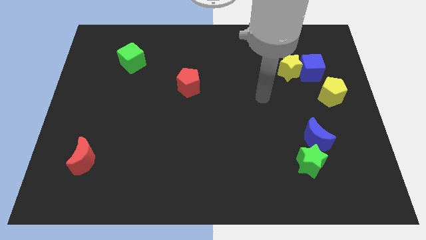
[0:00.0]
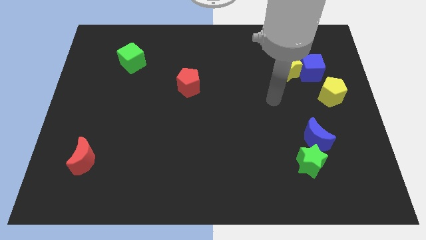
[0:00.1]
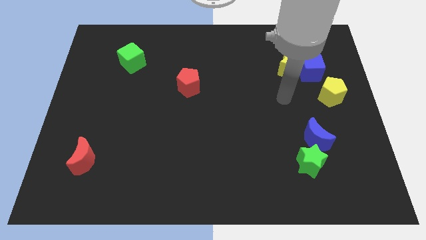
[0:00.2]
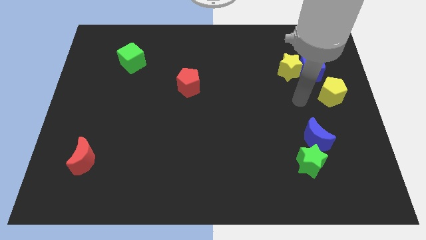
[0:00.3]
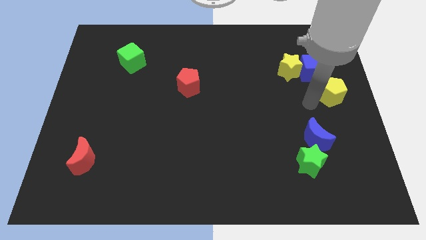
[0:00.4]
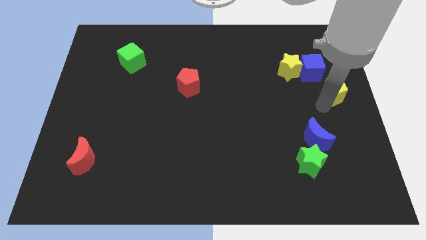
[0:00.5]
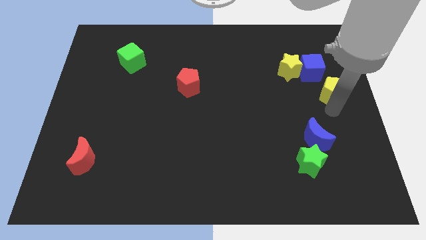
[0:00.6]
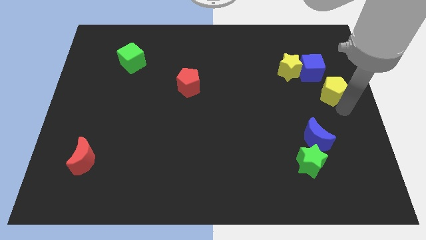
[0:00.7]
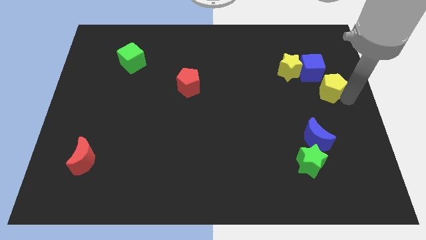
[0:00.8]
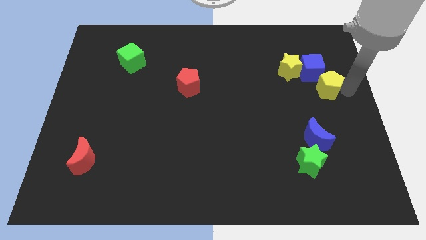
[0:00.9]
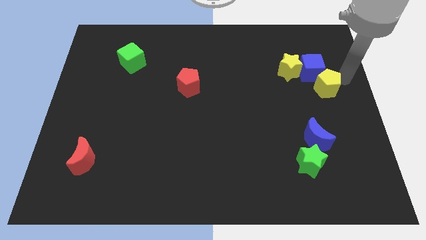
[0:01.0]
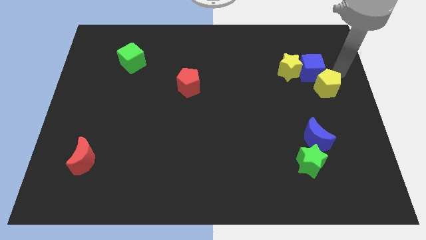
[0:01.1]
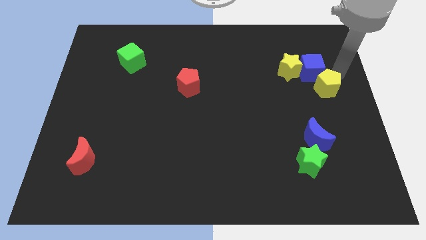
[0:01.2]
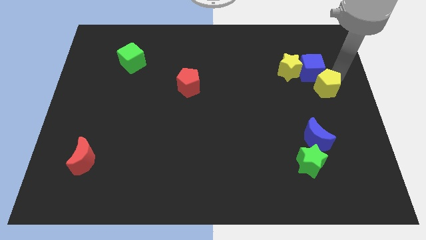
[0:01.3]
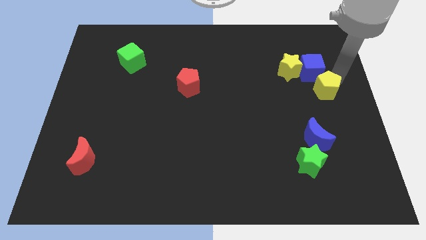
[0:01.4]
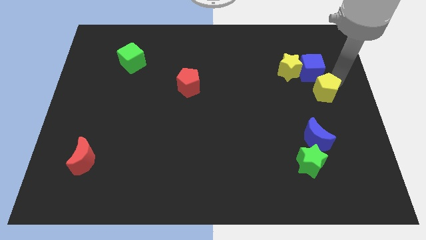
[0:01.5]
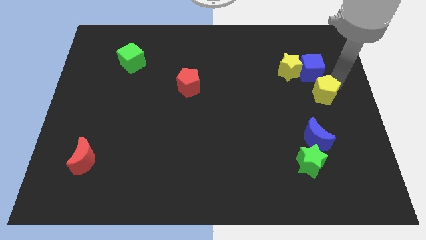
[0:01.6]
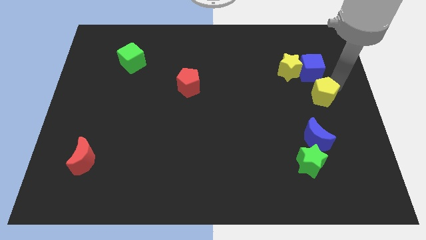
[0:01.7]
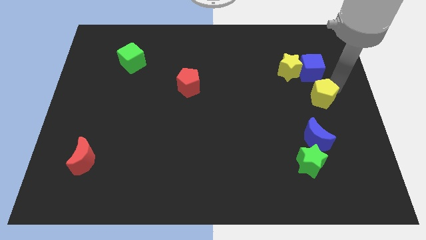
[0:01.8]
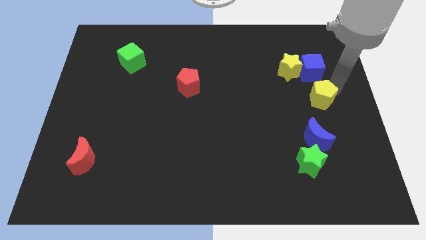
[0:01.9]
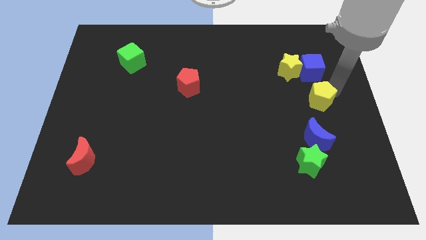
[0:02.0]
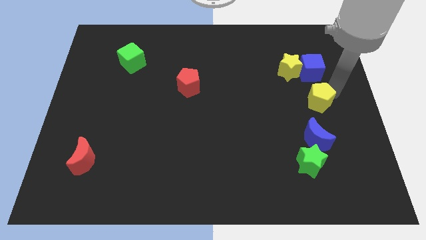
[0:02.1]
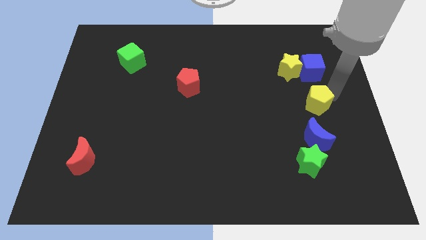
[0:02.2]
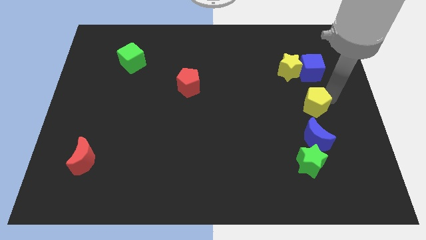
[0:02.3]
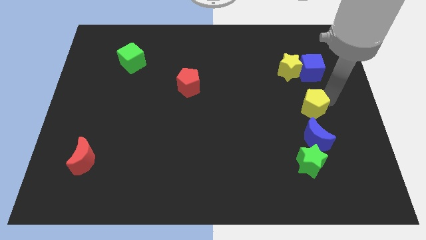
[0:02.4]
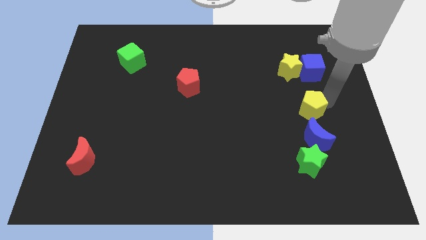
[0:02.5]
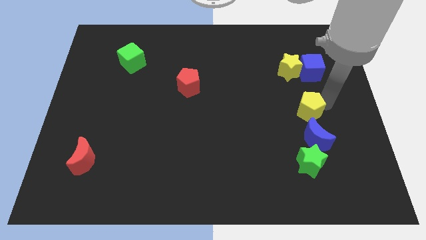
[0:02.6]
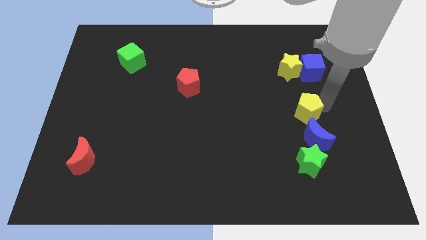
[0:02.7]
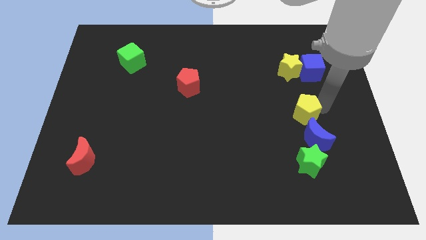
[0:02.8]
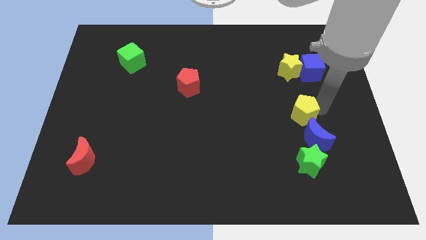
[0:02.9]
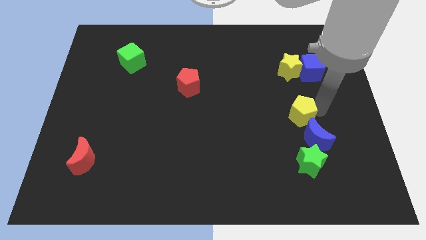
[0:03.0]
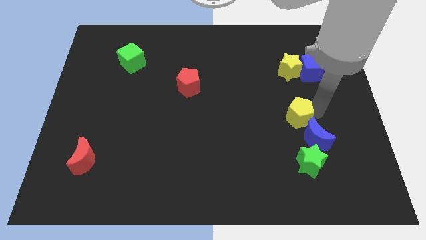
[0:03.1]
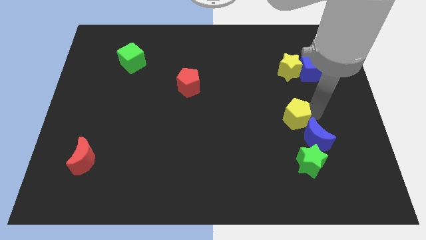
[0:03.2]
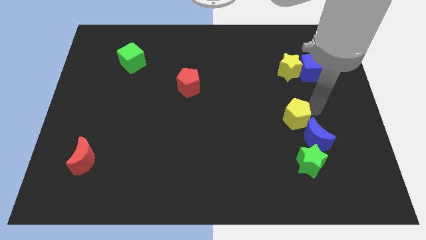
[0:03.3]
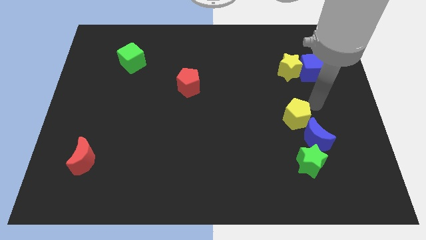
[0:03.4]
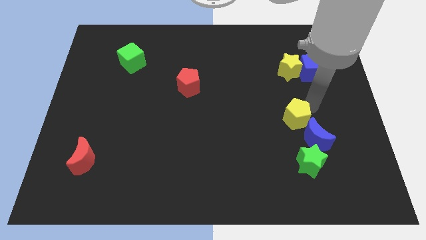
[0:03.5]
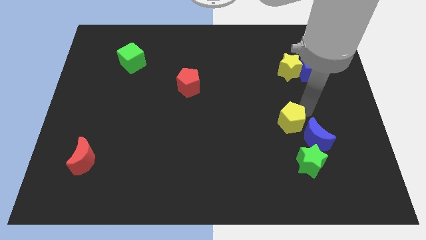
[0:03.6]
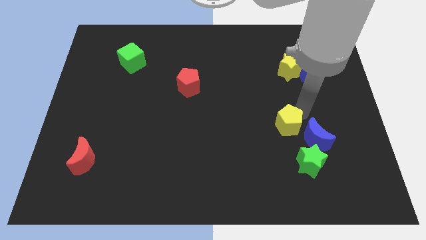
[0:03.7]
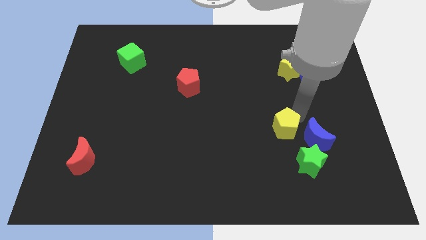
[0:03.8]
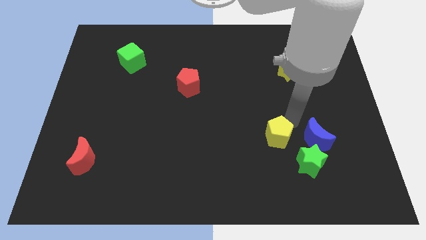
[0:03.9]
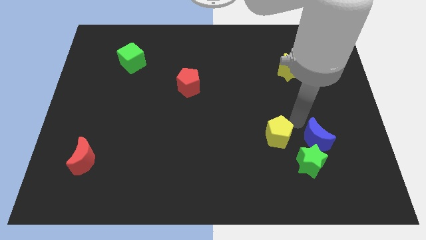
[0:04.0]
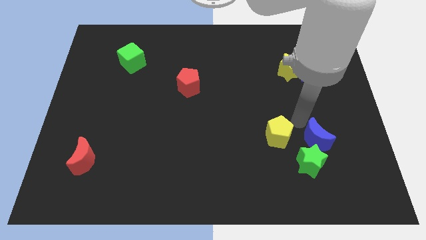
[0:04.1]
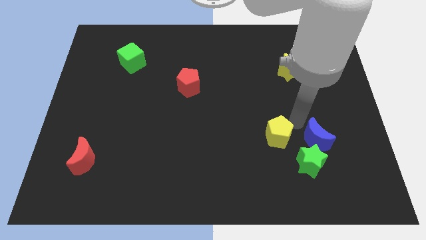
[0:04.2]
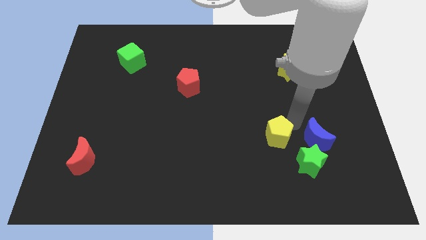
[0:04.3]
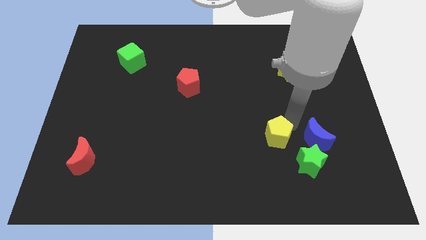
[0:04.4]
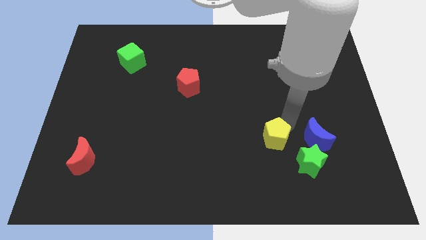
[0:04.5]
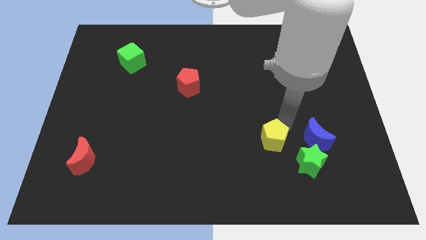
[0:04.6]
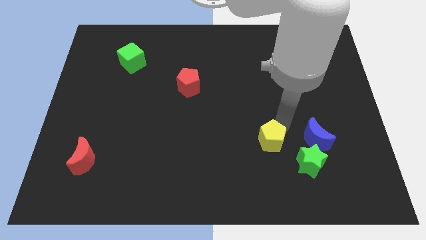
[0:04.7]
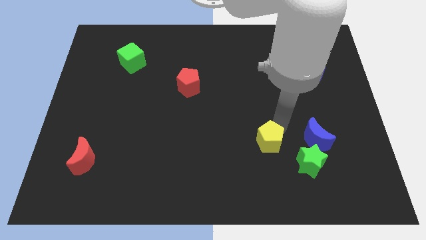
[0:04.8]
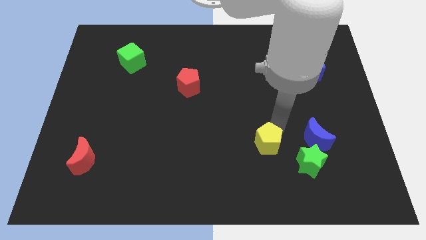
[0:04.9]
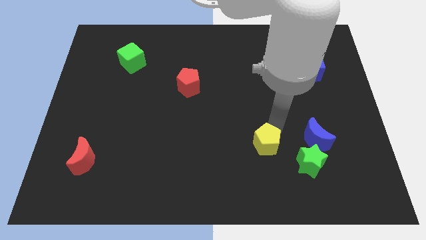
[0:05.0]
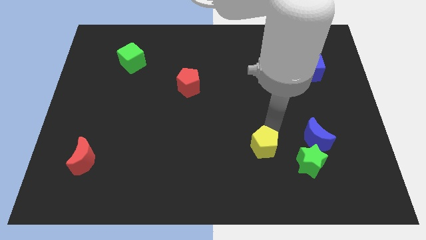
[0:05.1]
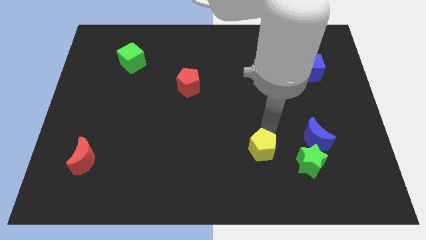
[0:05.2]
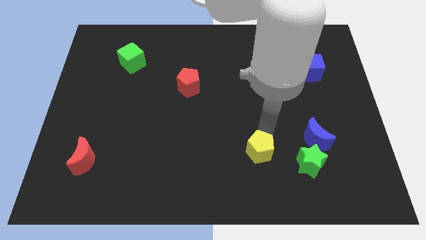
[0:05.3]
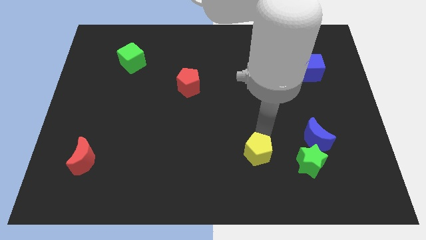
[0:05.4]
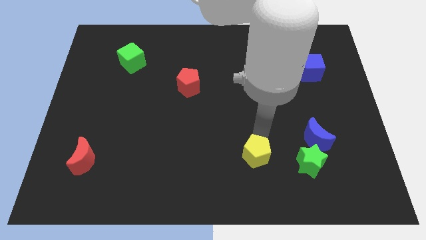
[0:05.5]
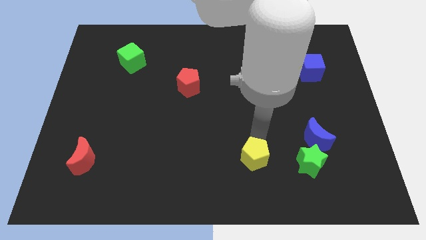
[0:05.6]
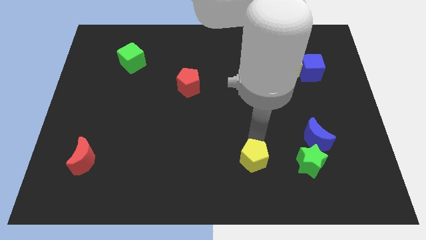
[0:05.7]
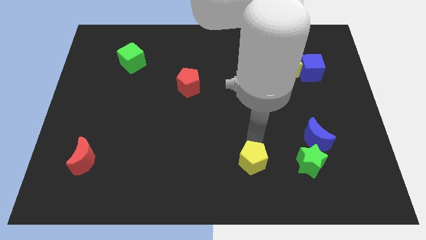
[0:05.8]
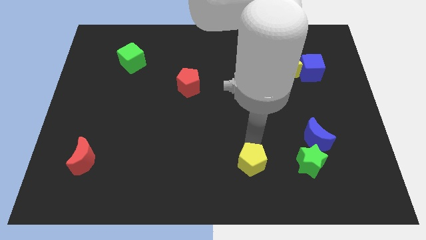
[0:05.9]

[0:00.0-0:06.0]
slide the yellow pentagon to the bottom side

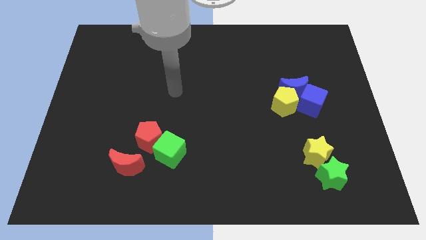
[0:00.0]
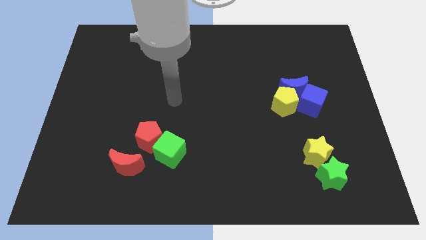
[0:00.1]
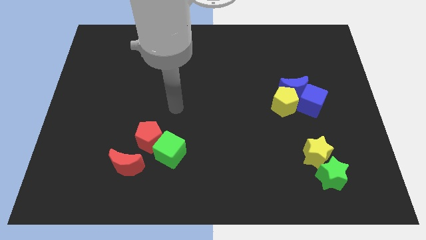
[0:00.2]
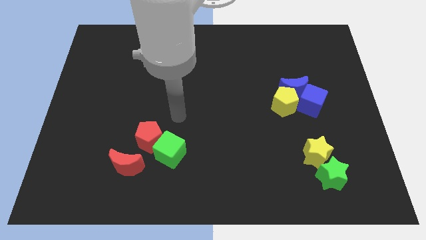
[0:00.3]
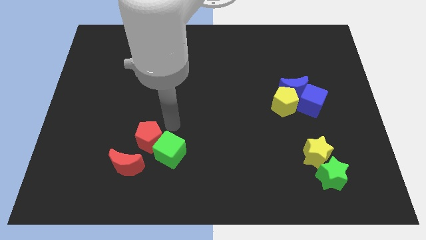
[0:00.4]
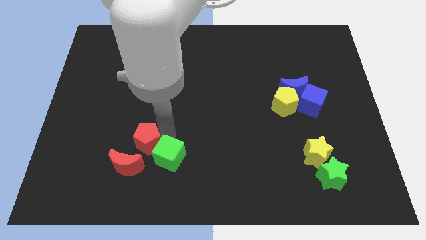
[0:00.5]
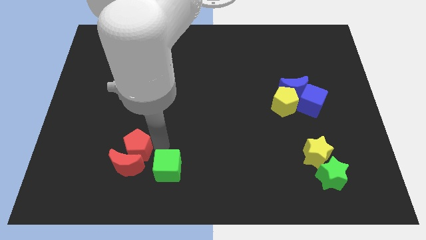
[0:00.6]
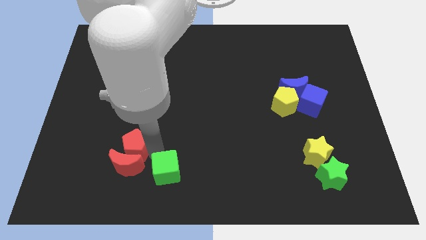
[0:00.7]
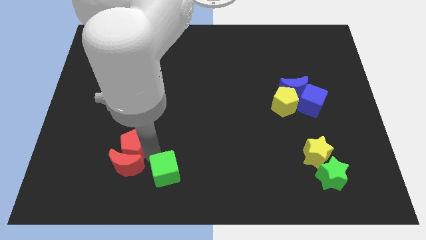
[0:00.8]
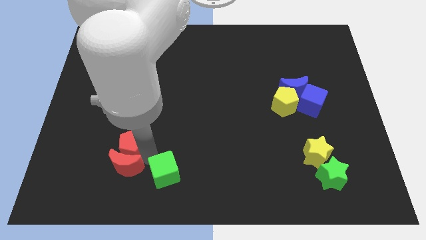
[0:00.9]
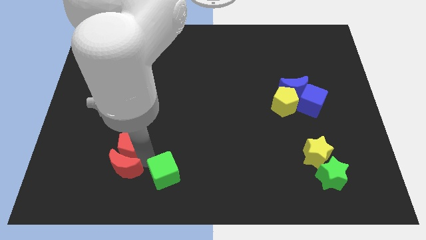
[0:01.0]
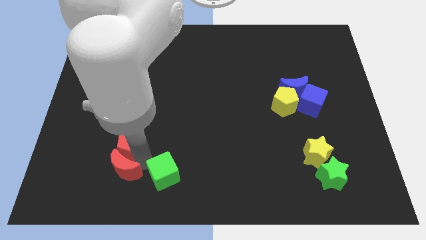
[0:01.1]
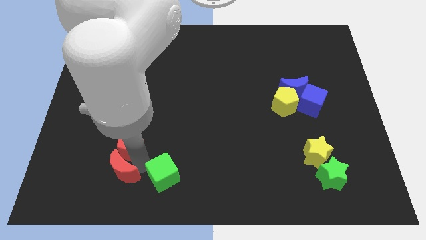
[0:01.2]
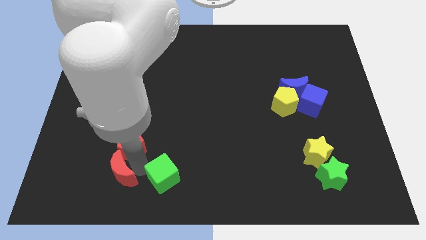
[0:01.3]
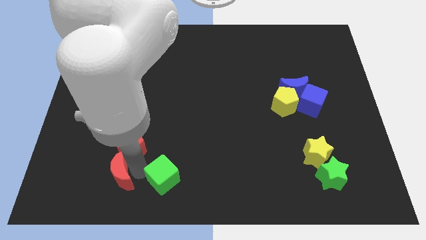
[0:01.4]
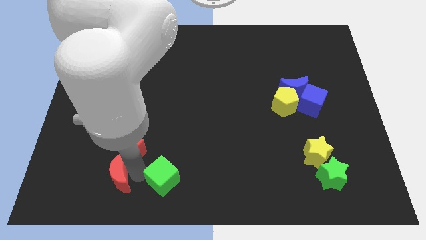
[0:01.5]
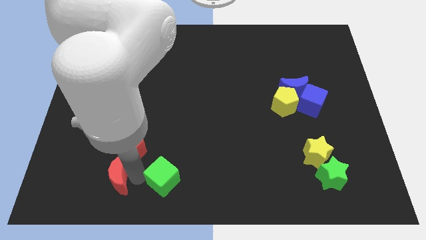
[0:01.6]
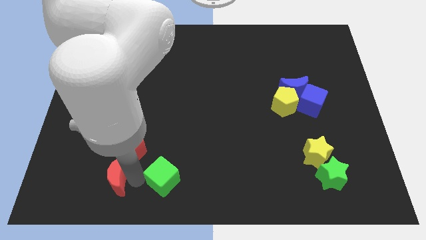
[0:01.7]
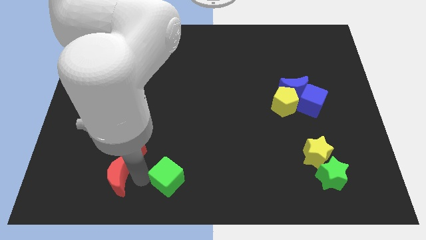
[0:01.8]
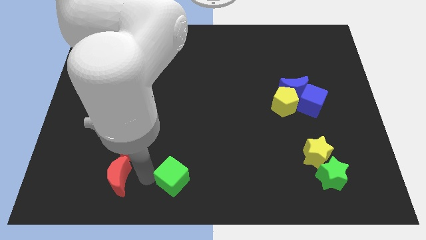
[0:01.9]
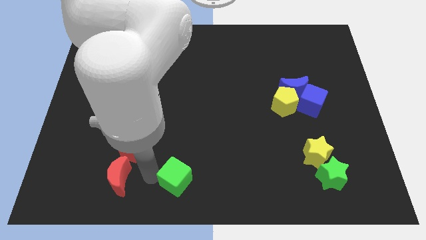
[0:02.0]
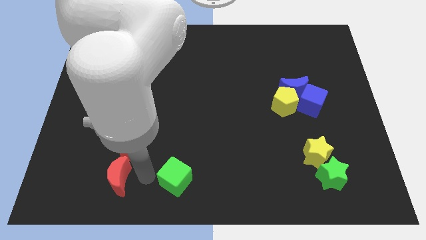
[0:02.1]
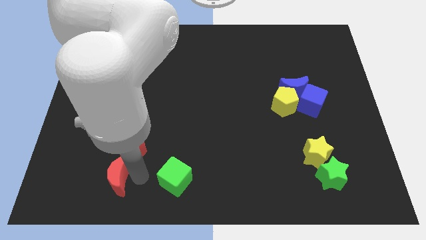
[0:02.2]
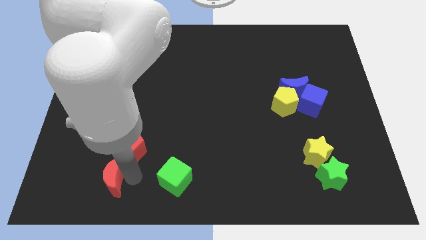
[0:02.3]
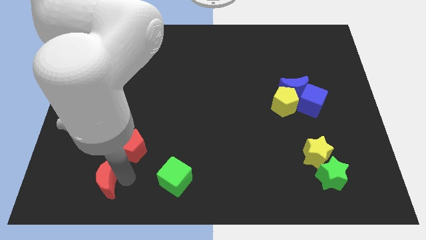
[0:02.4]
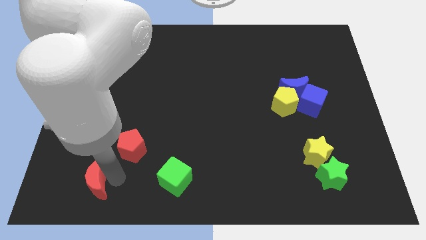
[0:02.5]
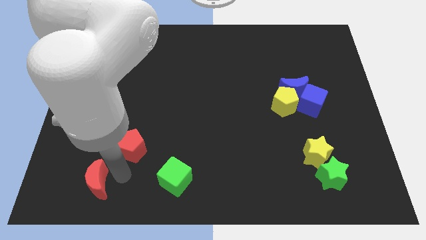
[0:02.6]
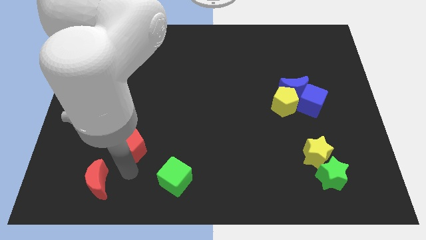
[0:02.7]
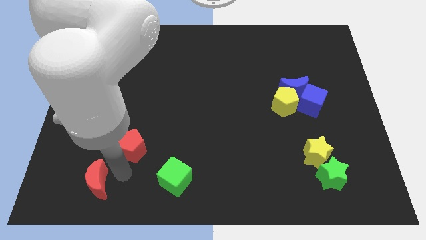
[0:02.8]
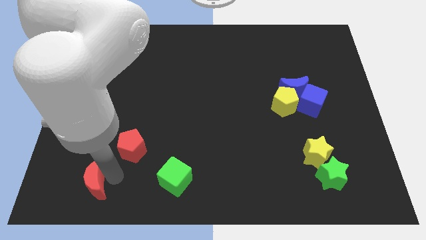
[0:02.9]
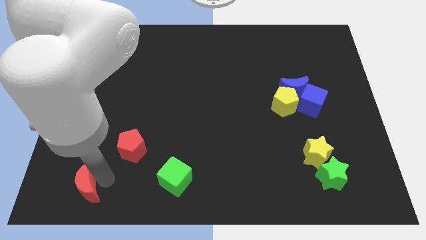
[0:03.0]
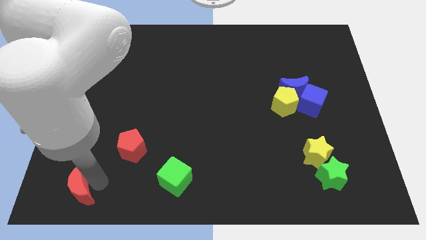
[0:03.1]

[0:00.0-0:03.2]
push the red moon to the bottom left corner
